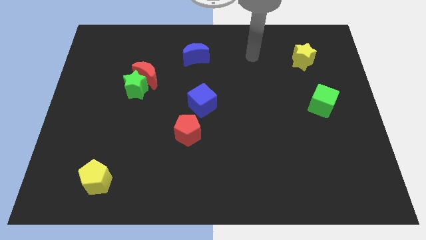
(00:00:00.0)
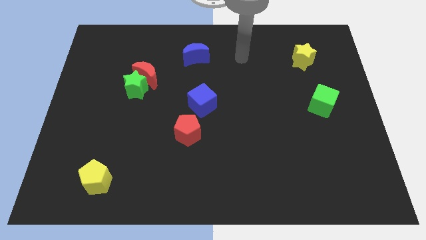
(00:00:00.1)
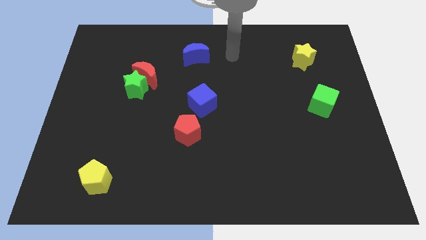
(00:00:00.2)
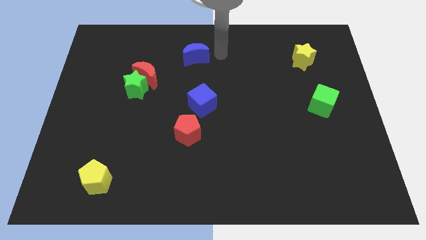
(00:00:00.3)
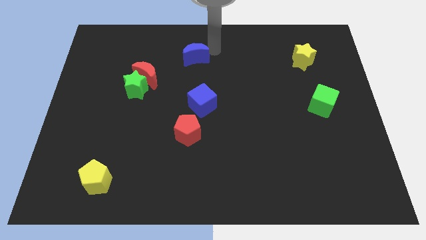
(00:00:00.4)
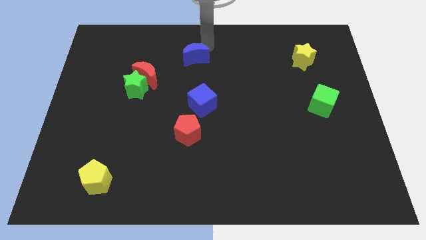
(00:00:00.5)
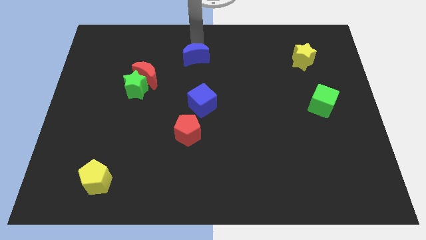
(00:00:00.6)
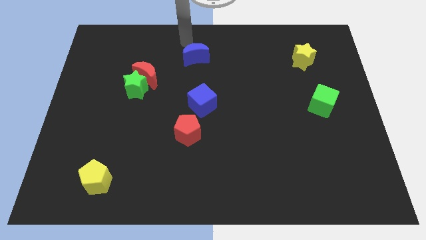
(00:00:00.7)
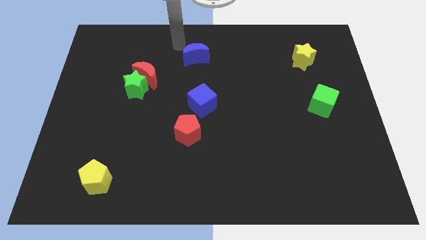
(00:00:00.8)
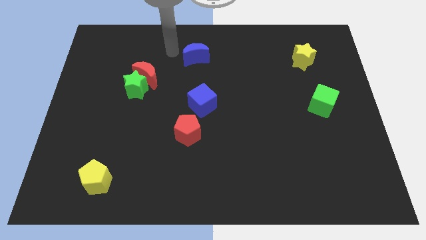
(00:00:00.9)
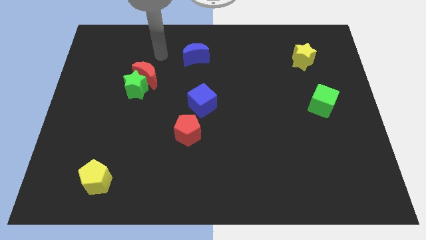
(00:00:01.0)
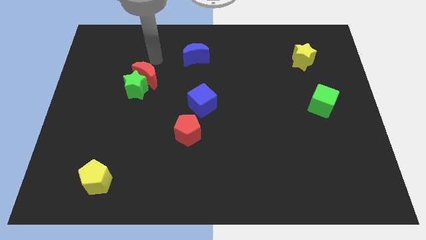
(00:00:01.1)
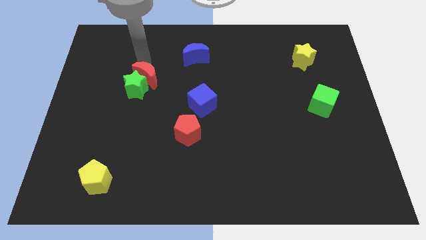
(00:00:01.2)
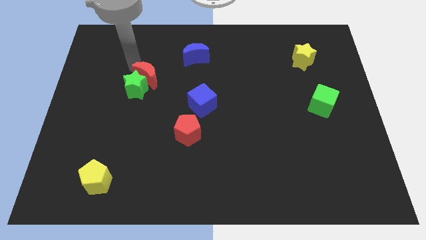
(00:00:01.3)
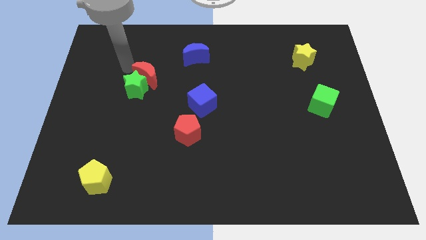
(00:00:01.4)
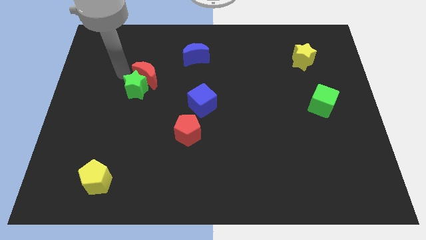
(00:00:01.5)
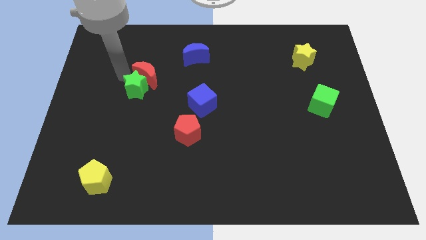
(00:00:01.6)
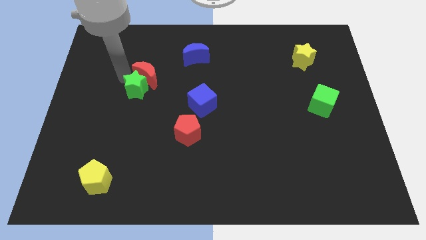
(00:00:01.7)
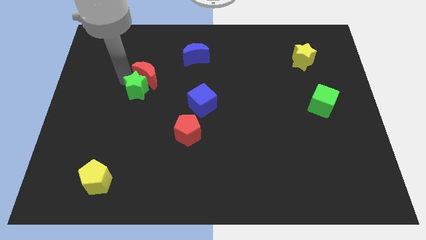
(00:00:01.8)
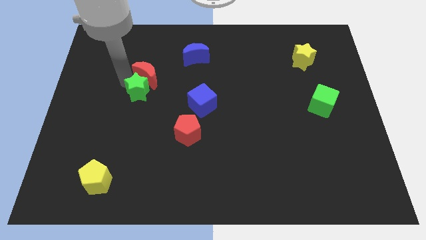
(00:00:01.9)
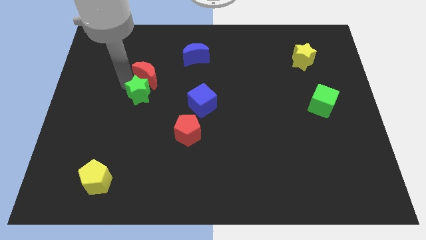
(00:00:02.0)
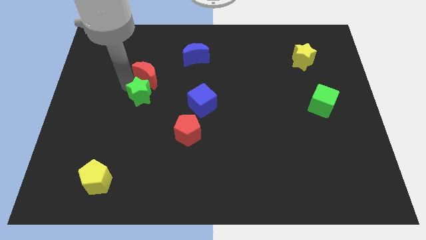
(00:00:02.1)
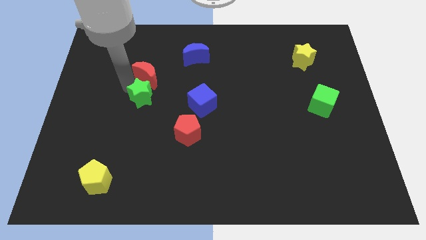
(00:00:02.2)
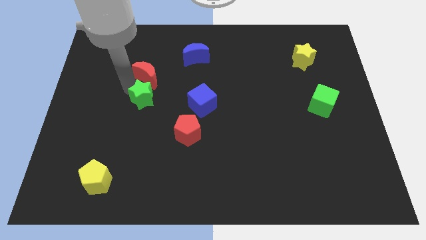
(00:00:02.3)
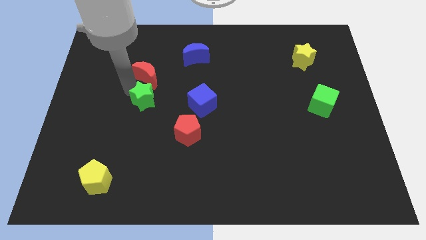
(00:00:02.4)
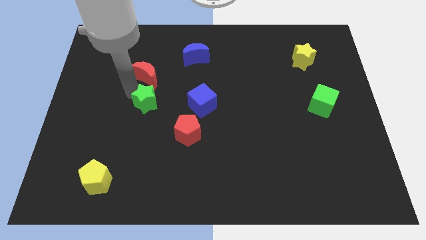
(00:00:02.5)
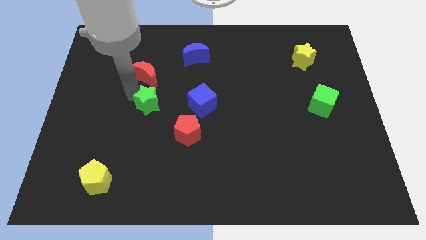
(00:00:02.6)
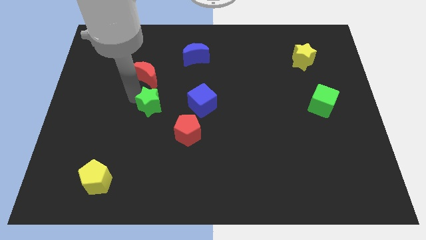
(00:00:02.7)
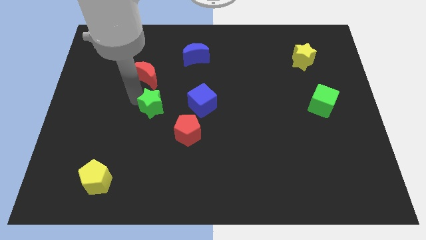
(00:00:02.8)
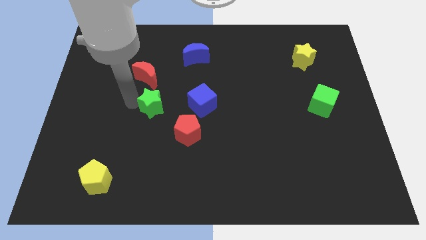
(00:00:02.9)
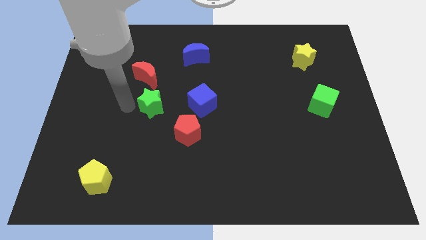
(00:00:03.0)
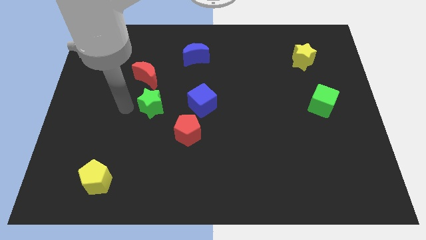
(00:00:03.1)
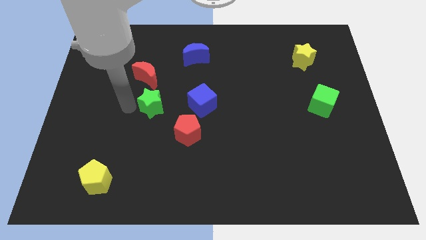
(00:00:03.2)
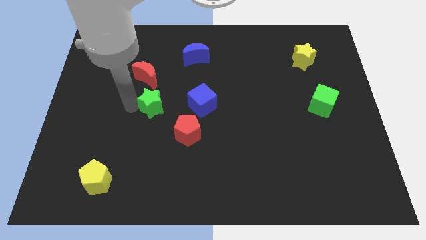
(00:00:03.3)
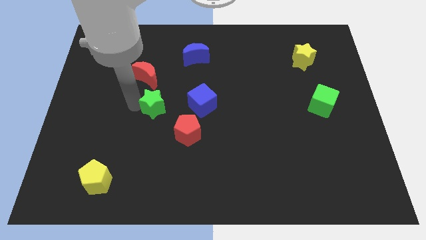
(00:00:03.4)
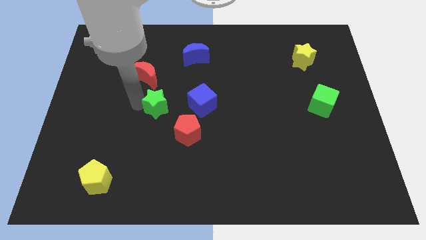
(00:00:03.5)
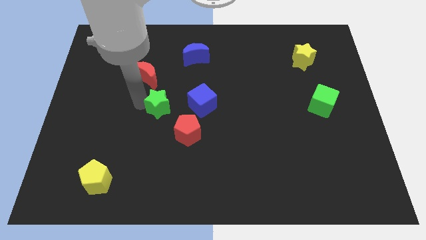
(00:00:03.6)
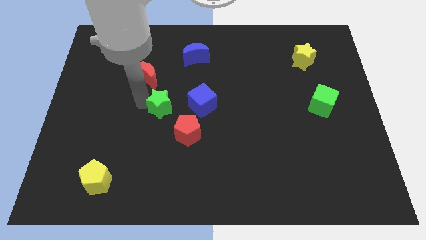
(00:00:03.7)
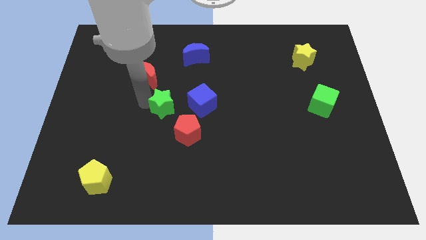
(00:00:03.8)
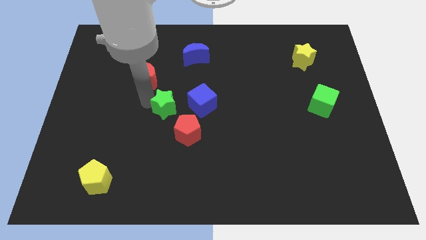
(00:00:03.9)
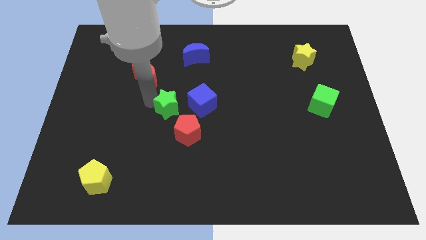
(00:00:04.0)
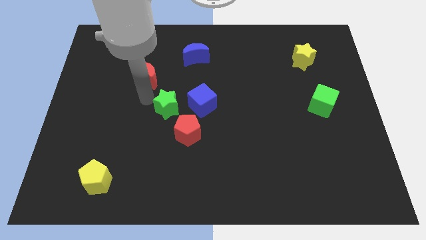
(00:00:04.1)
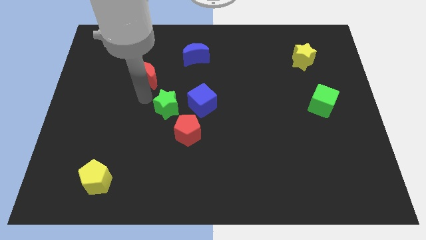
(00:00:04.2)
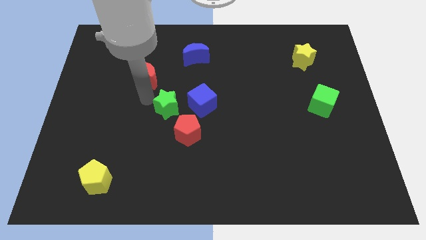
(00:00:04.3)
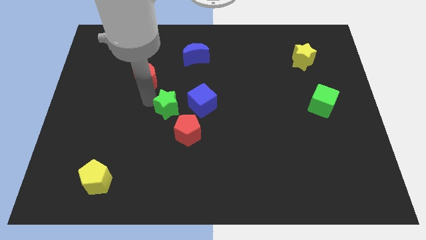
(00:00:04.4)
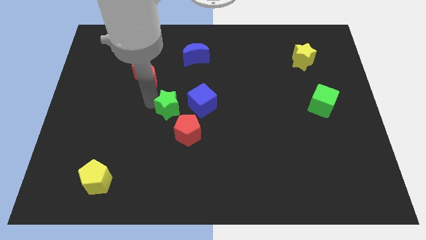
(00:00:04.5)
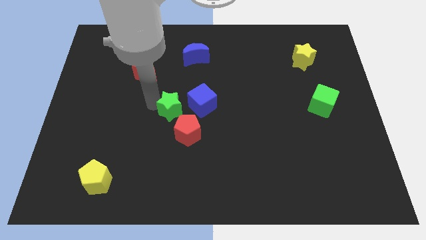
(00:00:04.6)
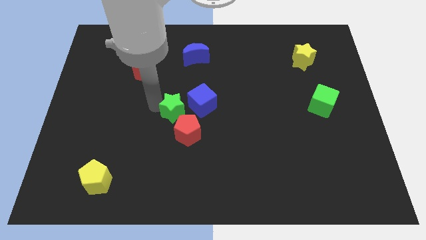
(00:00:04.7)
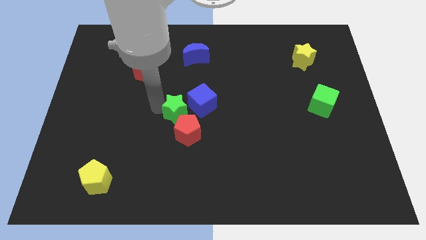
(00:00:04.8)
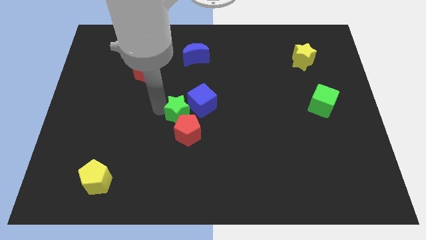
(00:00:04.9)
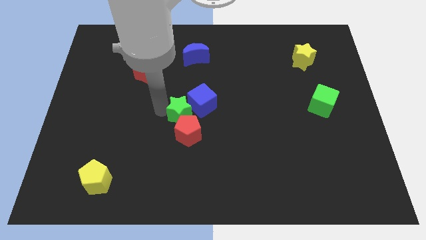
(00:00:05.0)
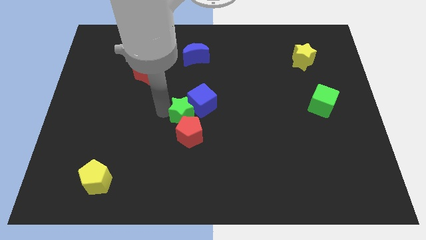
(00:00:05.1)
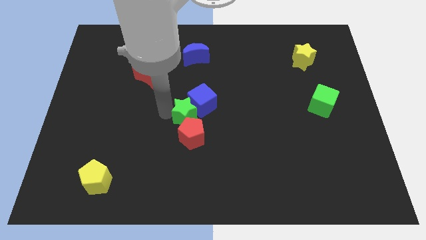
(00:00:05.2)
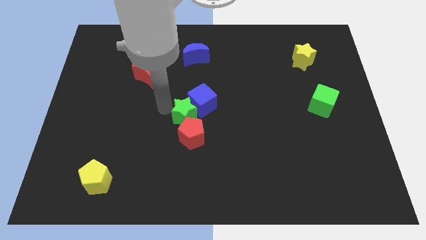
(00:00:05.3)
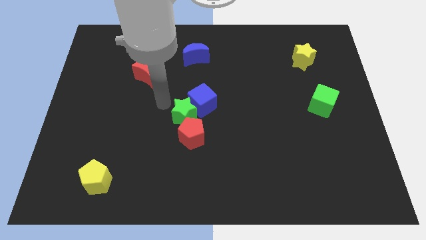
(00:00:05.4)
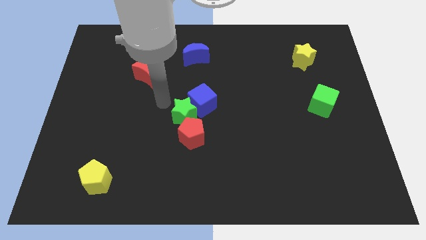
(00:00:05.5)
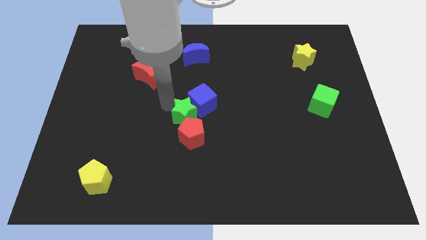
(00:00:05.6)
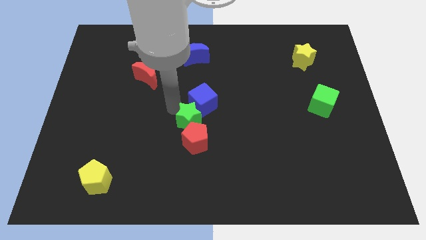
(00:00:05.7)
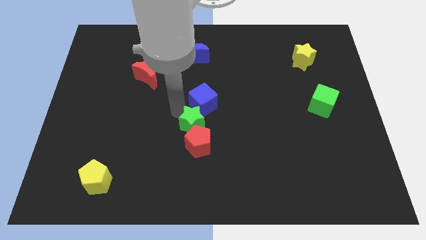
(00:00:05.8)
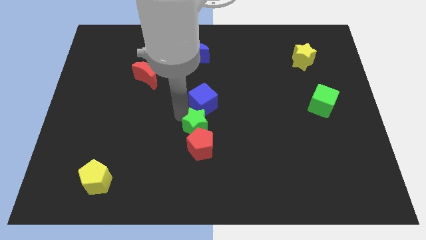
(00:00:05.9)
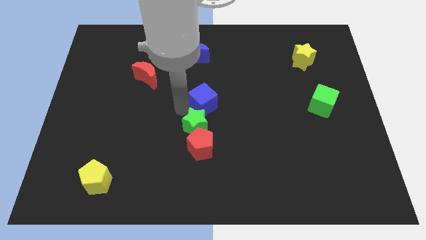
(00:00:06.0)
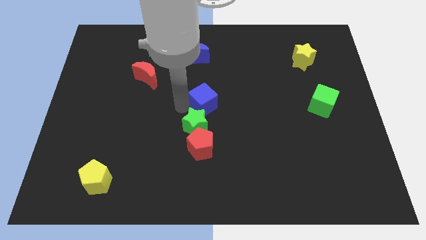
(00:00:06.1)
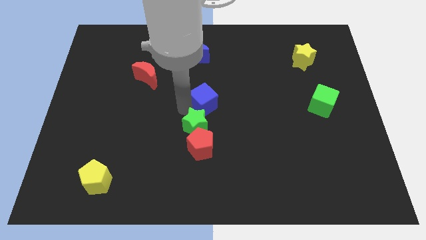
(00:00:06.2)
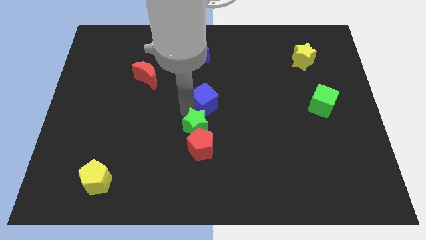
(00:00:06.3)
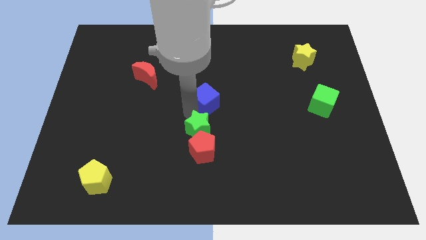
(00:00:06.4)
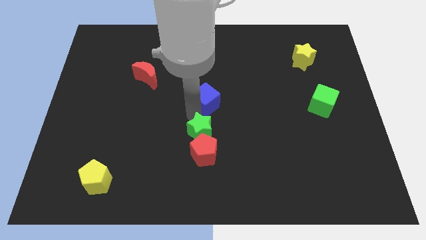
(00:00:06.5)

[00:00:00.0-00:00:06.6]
move the green star down and then right

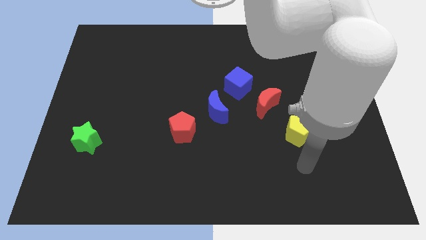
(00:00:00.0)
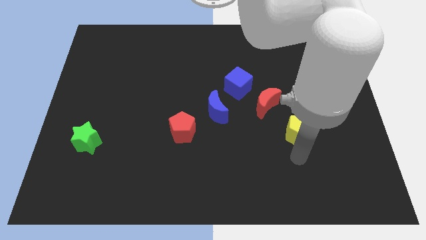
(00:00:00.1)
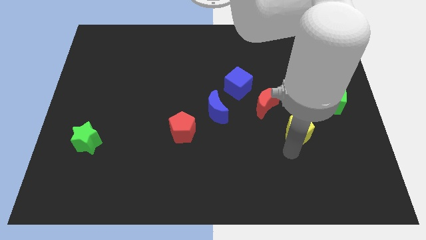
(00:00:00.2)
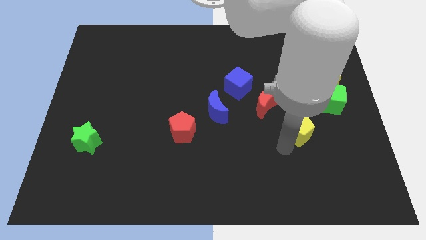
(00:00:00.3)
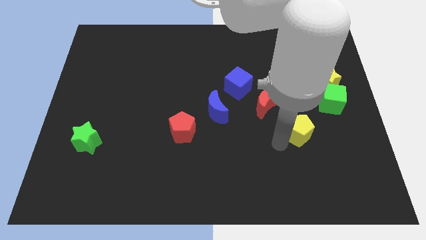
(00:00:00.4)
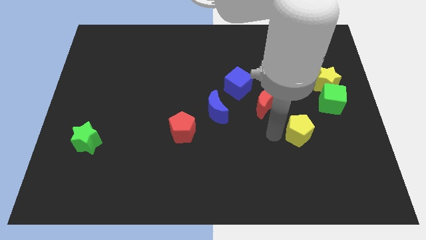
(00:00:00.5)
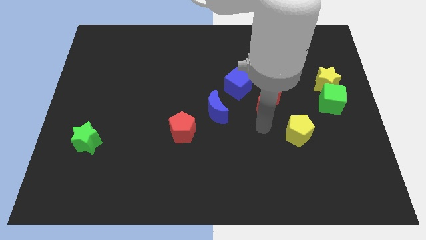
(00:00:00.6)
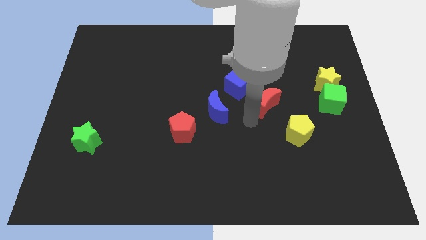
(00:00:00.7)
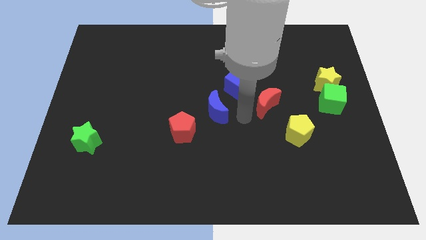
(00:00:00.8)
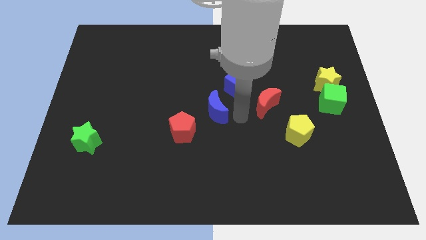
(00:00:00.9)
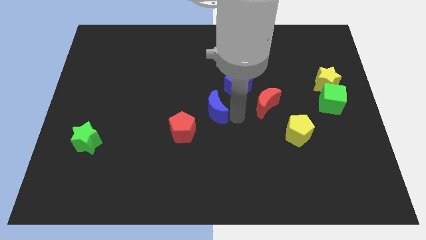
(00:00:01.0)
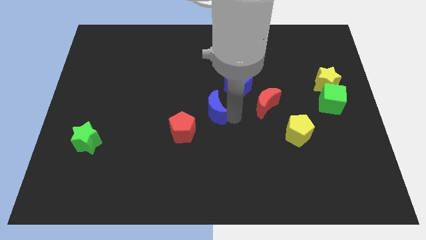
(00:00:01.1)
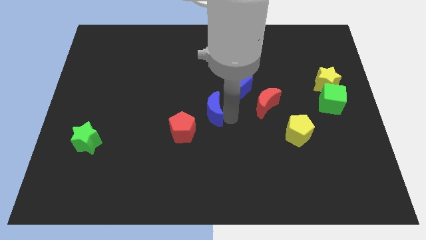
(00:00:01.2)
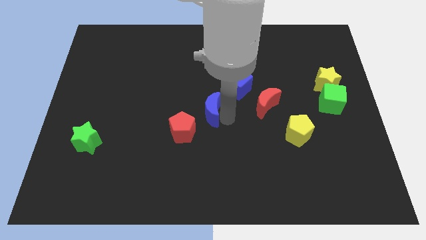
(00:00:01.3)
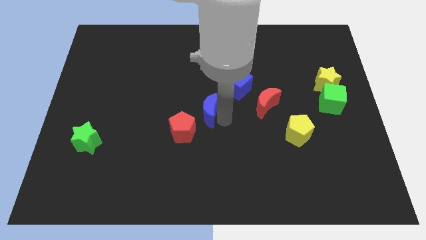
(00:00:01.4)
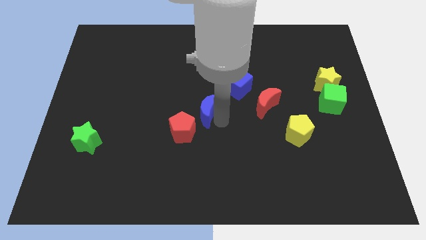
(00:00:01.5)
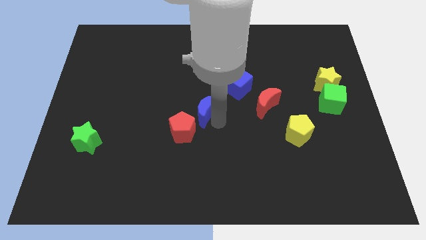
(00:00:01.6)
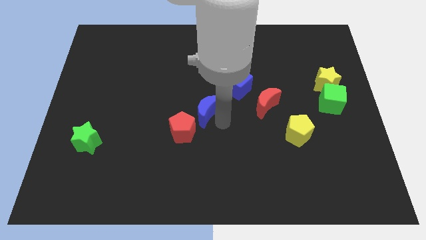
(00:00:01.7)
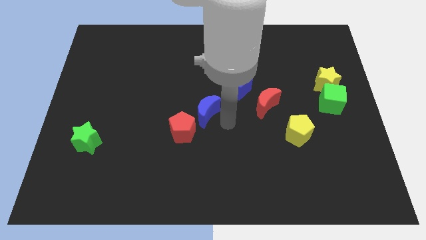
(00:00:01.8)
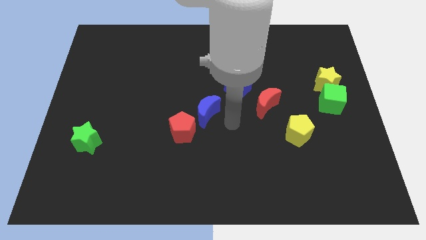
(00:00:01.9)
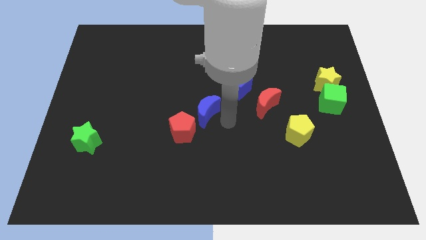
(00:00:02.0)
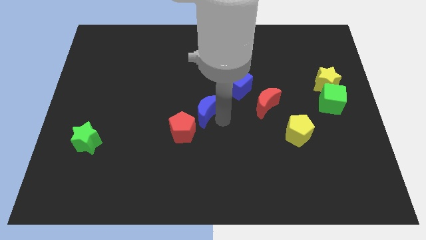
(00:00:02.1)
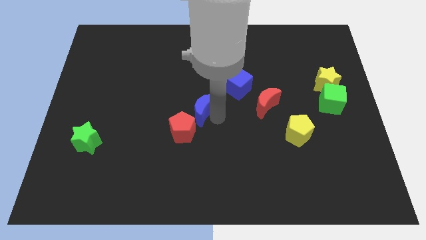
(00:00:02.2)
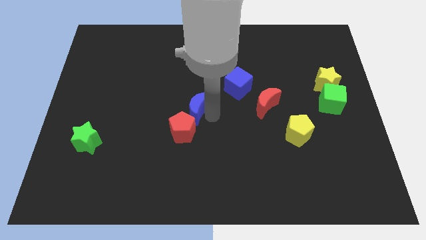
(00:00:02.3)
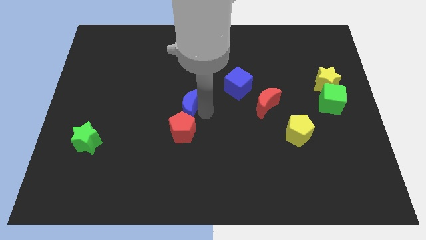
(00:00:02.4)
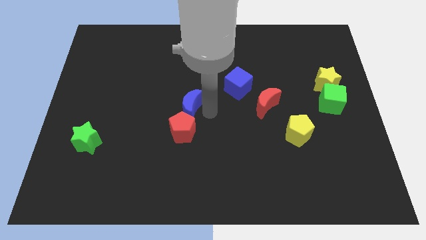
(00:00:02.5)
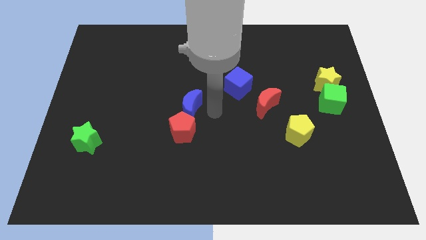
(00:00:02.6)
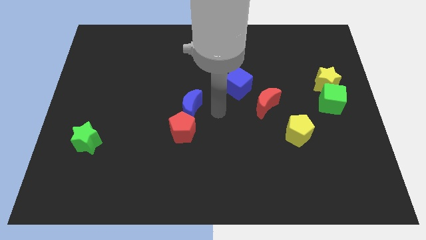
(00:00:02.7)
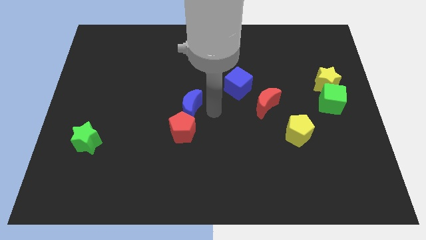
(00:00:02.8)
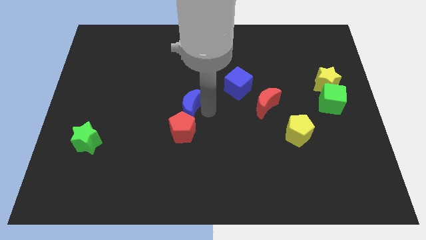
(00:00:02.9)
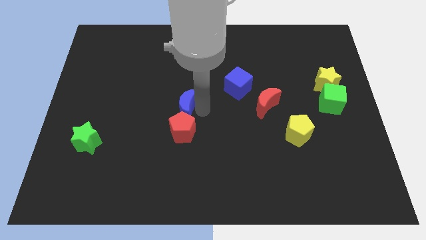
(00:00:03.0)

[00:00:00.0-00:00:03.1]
slide the blue moon slightly to the left
